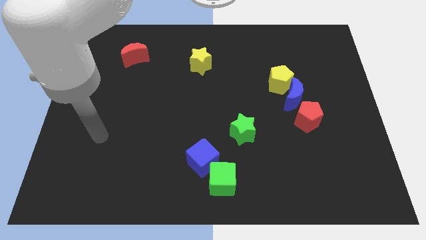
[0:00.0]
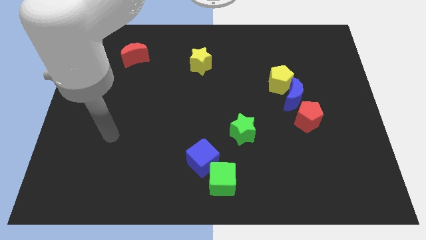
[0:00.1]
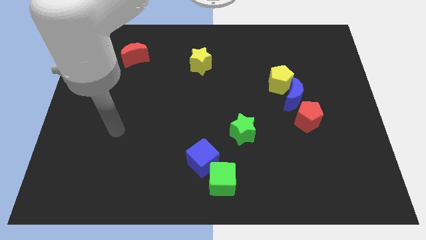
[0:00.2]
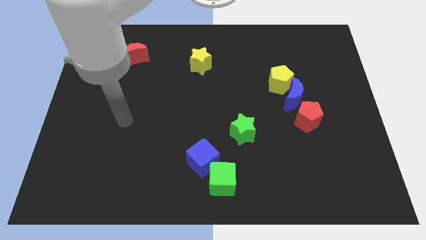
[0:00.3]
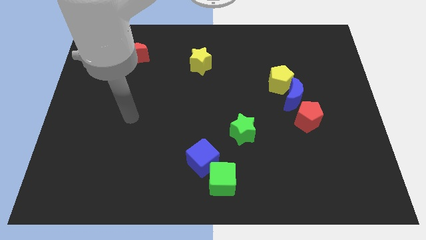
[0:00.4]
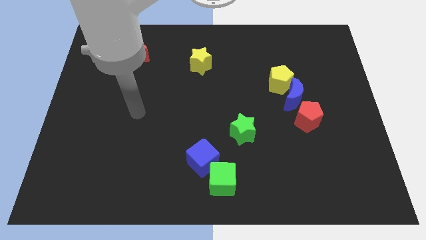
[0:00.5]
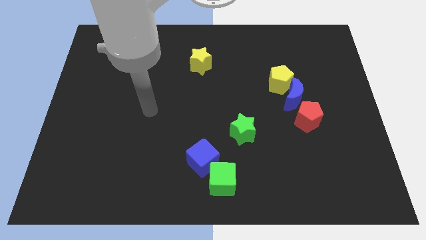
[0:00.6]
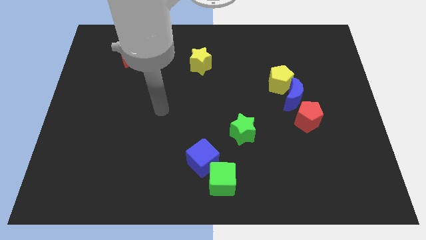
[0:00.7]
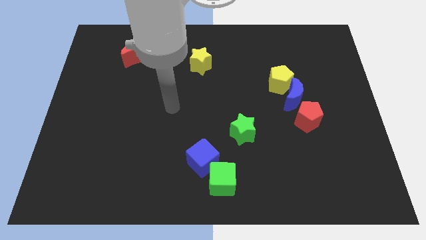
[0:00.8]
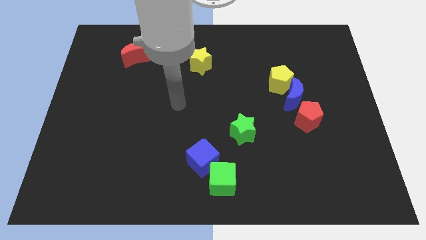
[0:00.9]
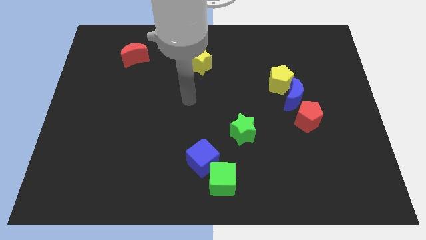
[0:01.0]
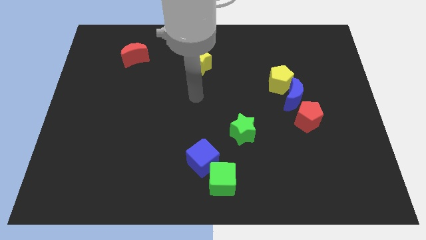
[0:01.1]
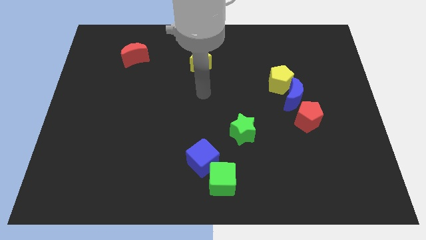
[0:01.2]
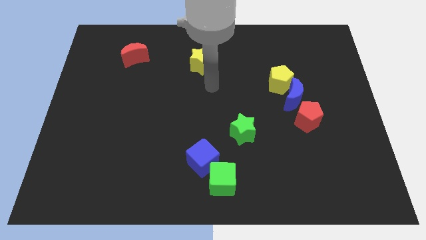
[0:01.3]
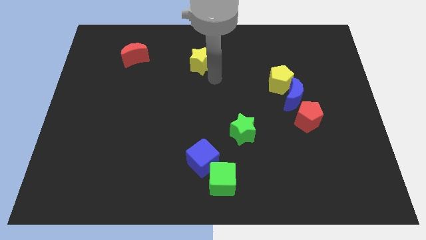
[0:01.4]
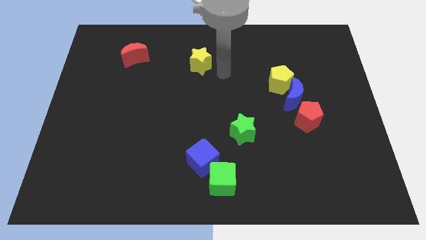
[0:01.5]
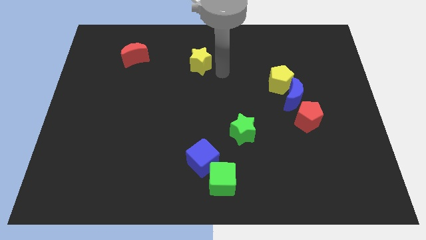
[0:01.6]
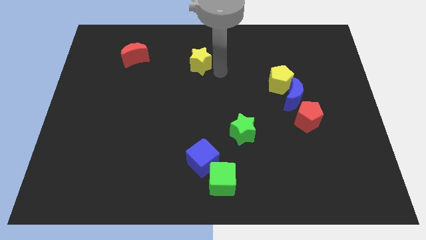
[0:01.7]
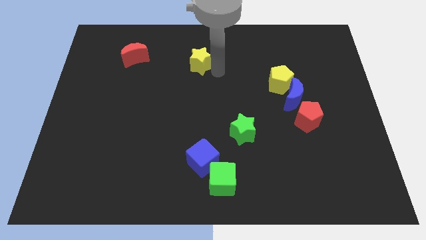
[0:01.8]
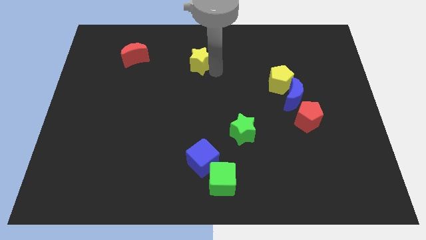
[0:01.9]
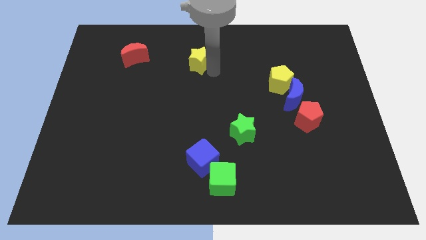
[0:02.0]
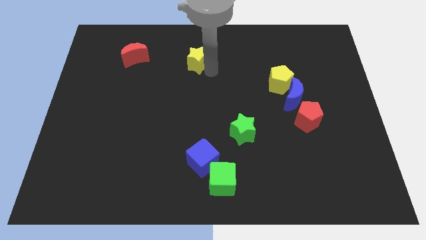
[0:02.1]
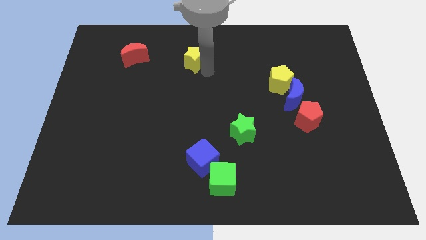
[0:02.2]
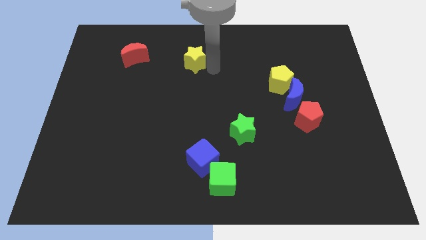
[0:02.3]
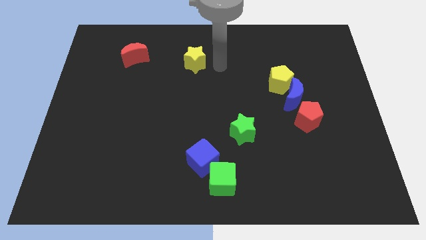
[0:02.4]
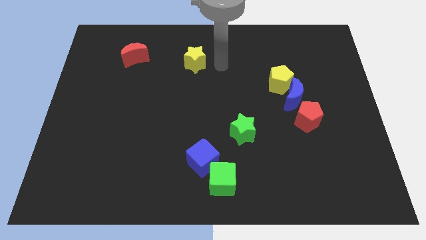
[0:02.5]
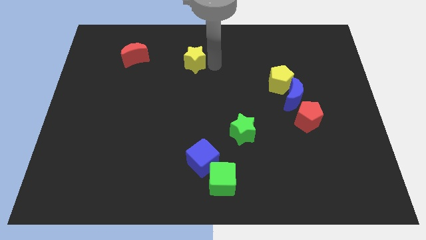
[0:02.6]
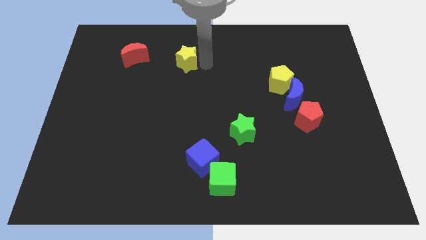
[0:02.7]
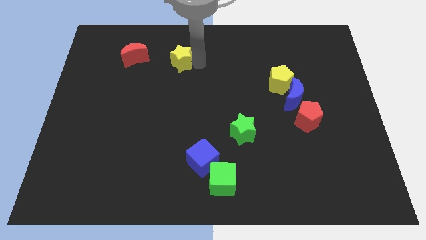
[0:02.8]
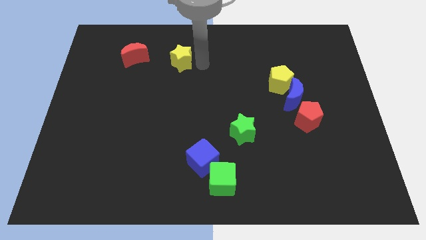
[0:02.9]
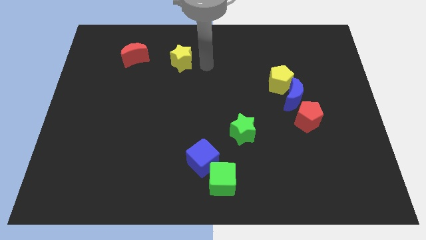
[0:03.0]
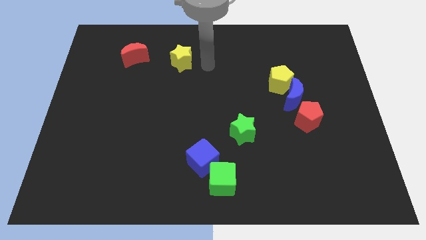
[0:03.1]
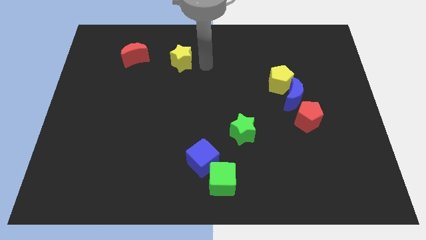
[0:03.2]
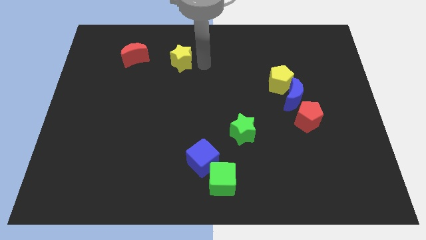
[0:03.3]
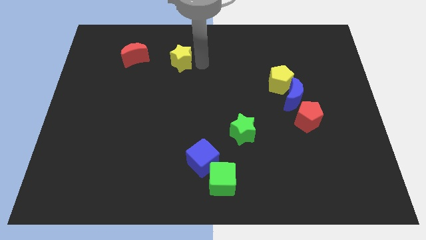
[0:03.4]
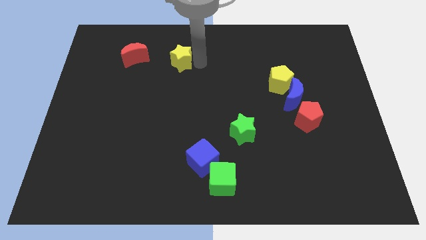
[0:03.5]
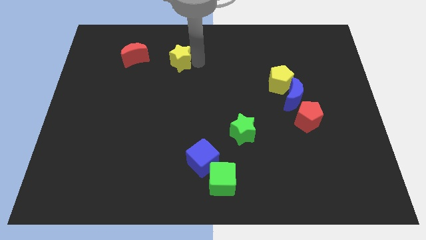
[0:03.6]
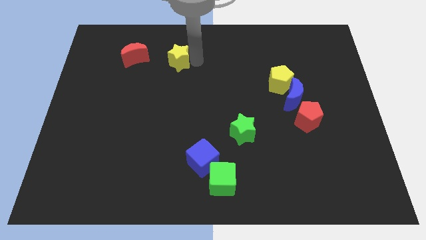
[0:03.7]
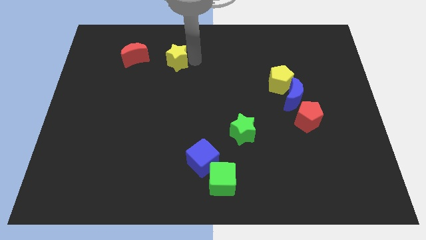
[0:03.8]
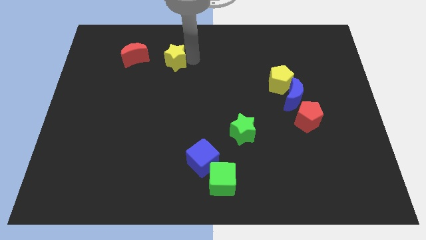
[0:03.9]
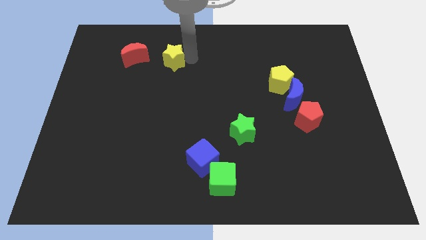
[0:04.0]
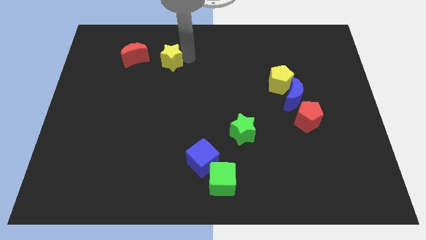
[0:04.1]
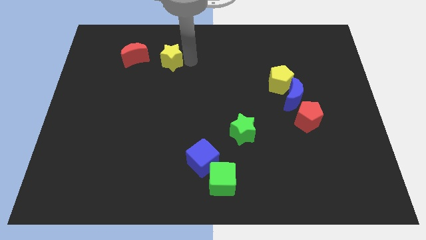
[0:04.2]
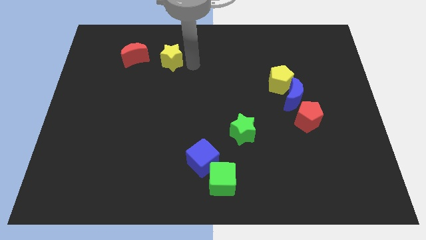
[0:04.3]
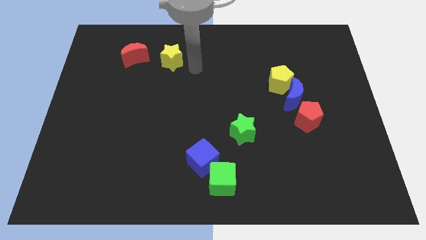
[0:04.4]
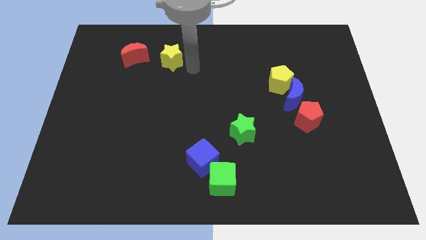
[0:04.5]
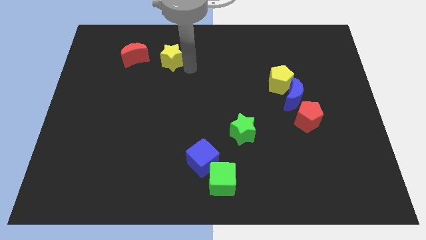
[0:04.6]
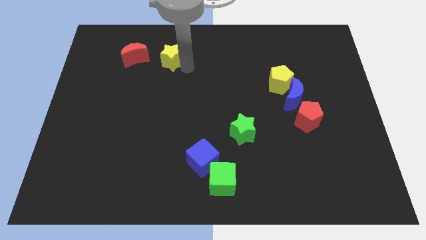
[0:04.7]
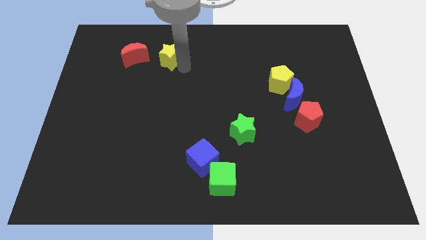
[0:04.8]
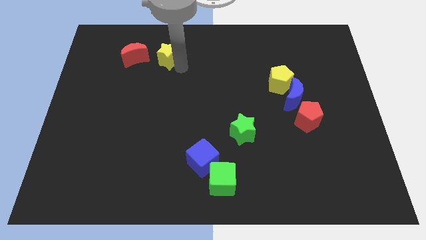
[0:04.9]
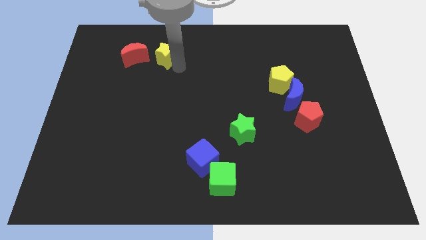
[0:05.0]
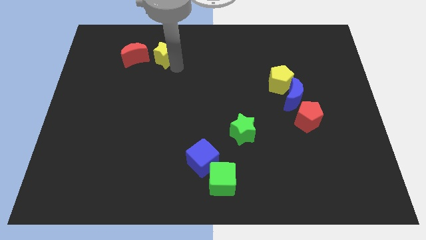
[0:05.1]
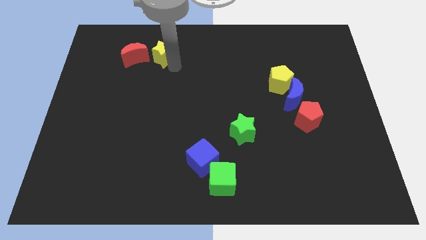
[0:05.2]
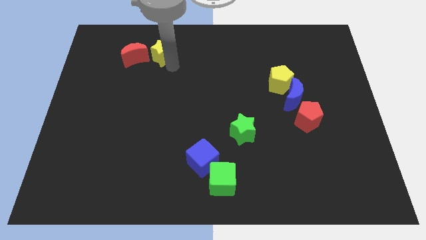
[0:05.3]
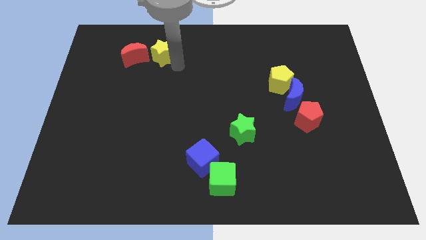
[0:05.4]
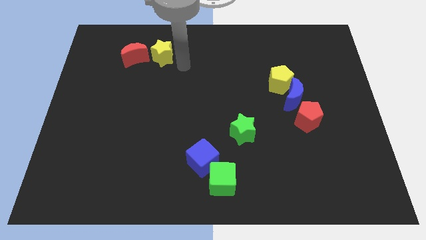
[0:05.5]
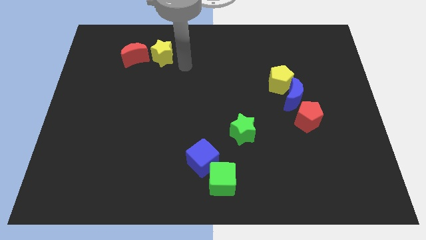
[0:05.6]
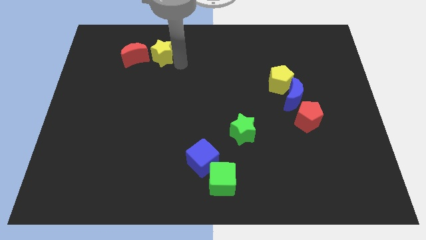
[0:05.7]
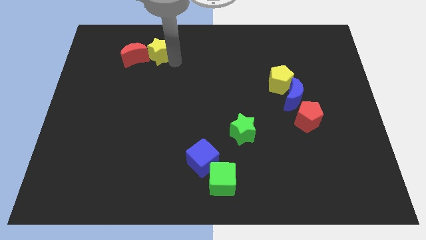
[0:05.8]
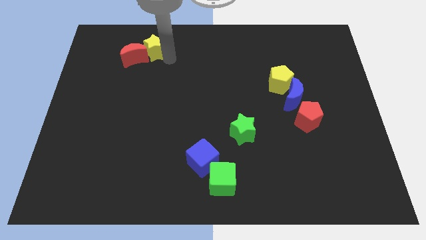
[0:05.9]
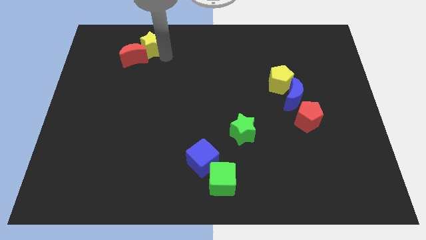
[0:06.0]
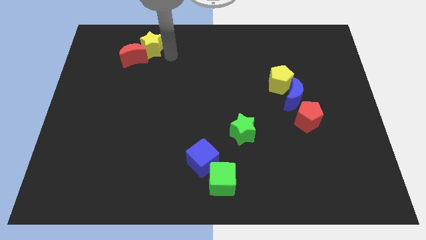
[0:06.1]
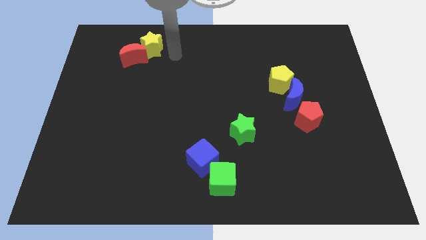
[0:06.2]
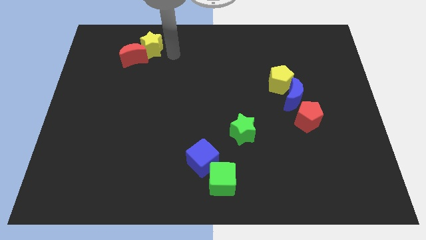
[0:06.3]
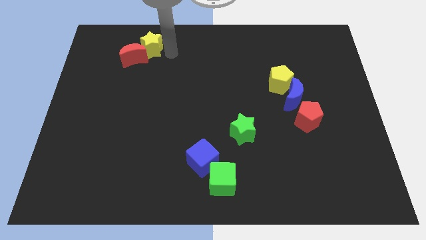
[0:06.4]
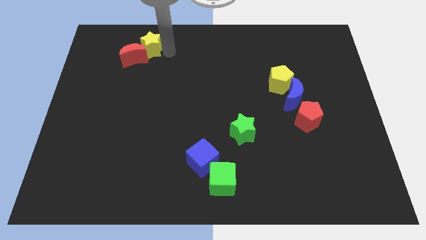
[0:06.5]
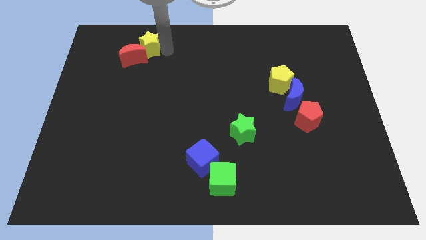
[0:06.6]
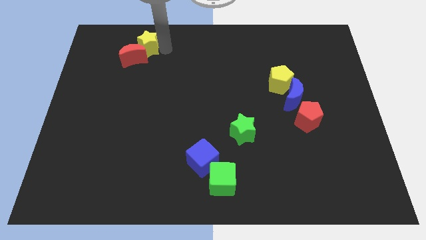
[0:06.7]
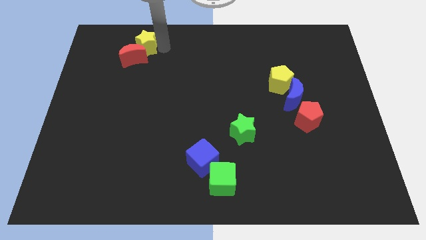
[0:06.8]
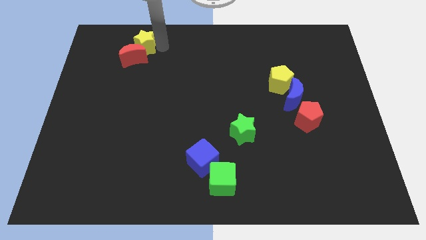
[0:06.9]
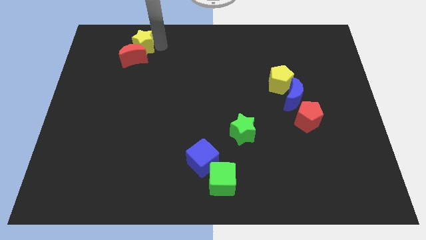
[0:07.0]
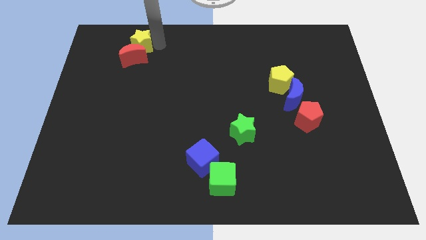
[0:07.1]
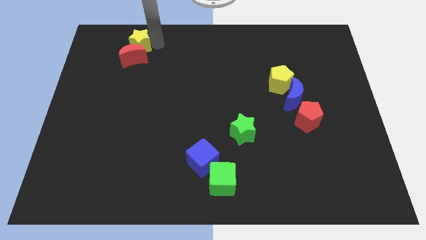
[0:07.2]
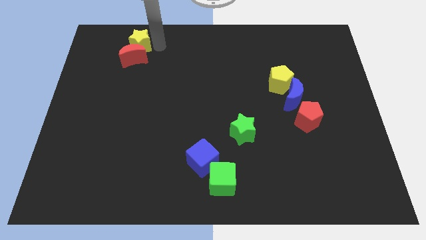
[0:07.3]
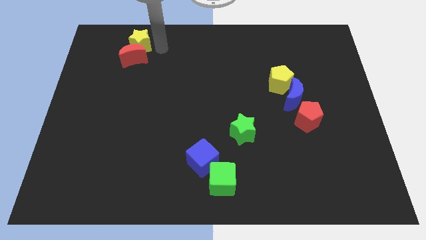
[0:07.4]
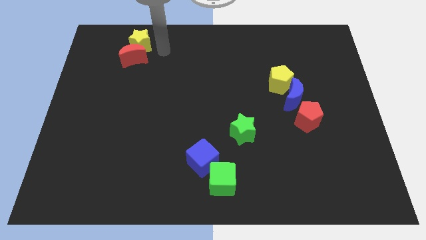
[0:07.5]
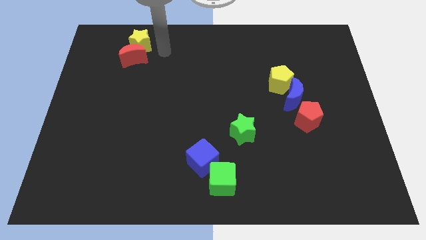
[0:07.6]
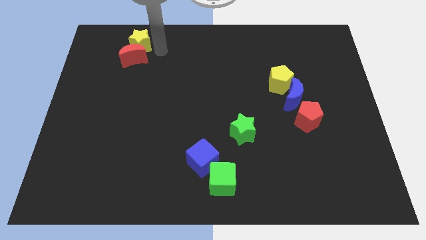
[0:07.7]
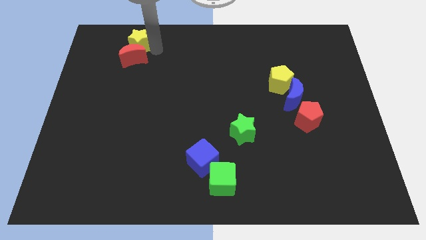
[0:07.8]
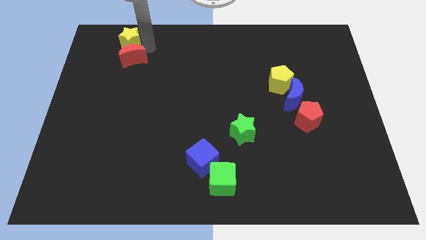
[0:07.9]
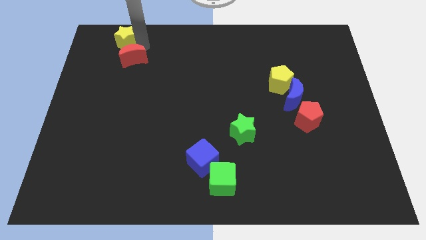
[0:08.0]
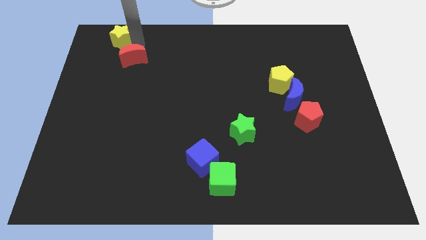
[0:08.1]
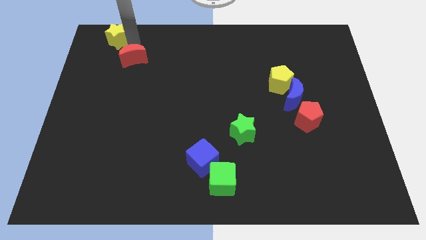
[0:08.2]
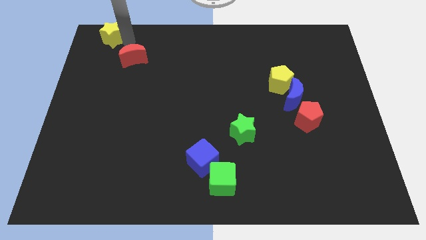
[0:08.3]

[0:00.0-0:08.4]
slide the yellow star to the upper left corner
